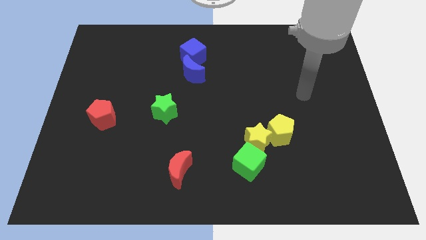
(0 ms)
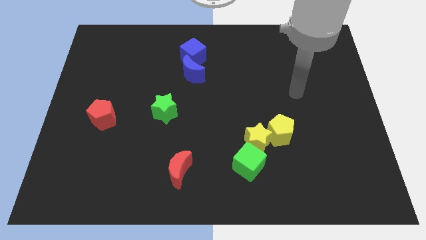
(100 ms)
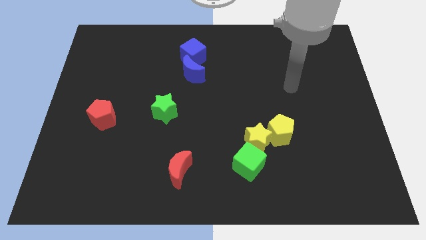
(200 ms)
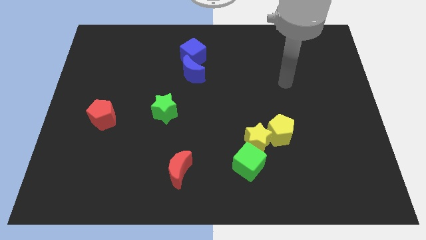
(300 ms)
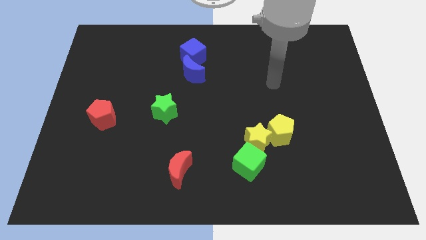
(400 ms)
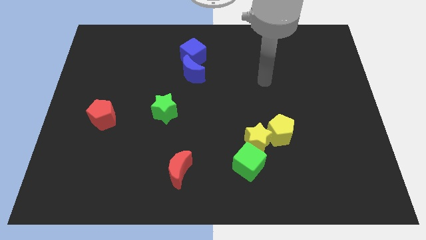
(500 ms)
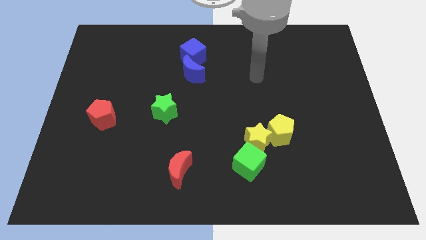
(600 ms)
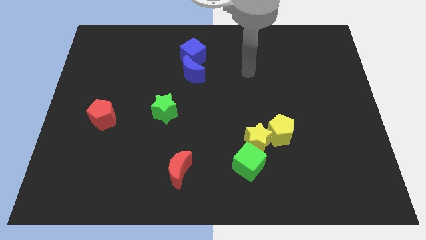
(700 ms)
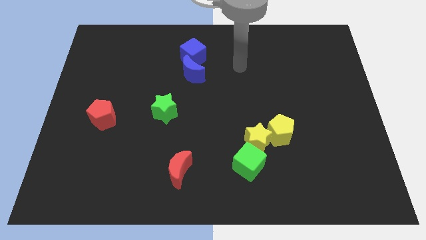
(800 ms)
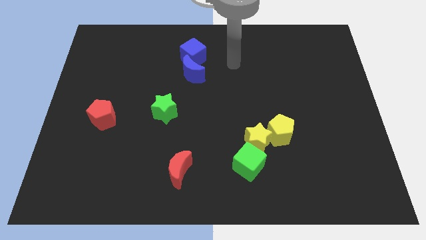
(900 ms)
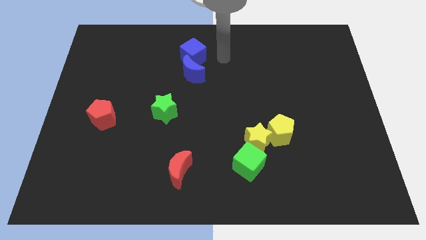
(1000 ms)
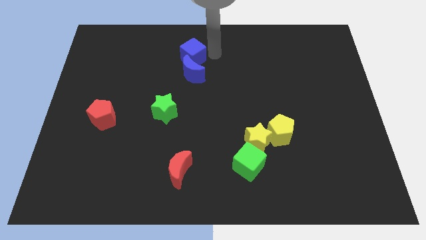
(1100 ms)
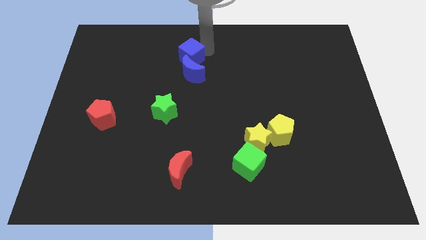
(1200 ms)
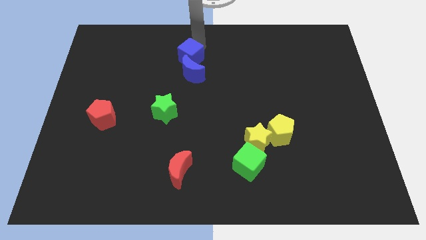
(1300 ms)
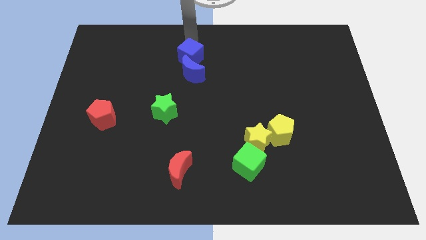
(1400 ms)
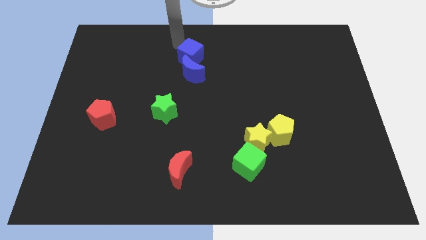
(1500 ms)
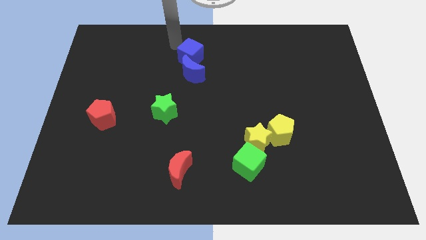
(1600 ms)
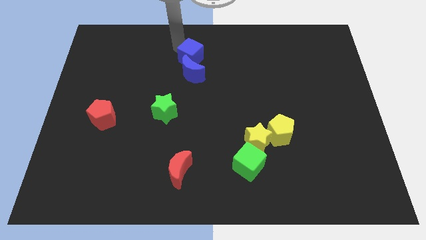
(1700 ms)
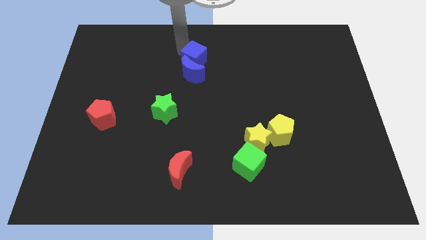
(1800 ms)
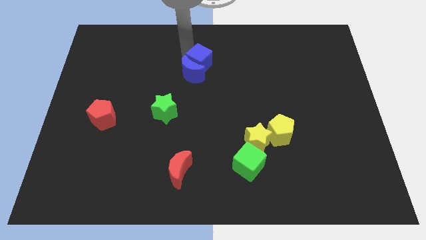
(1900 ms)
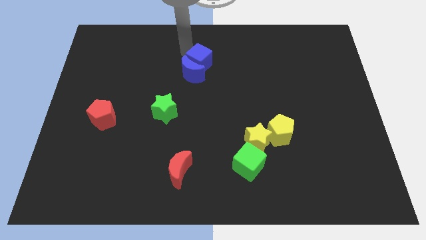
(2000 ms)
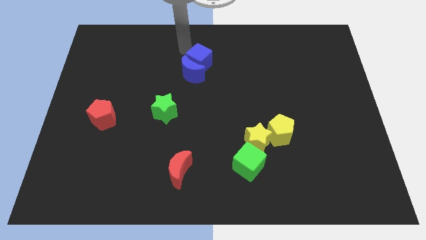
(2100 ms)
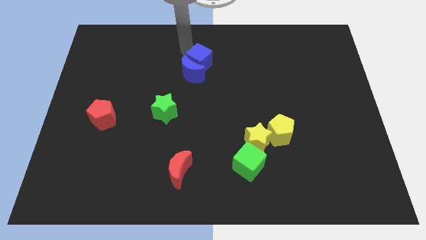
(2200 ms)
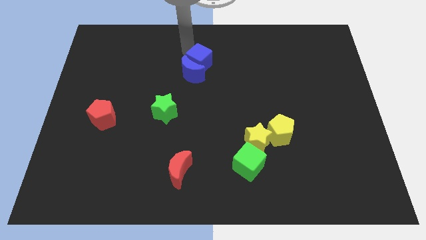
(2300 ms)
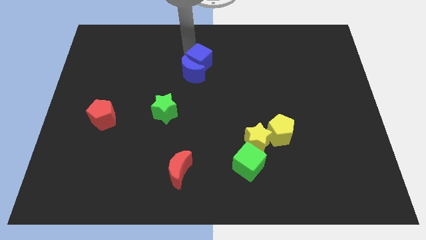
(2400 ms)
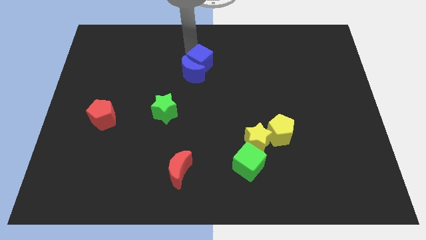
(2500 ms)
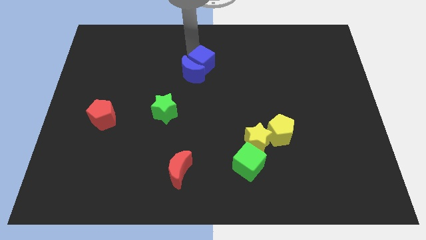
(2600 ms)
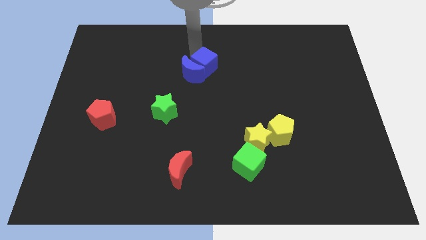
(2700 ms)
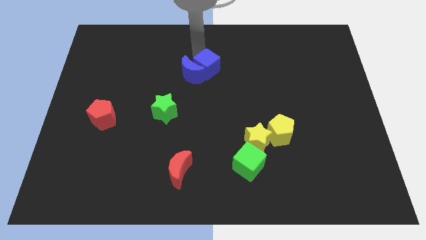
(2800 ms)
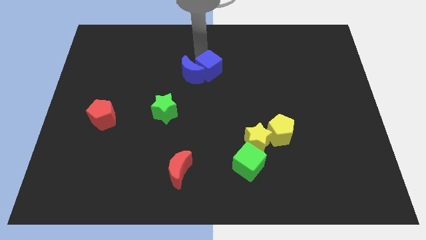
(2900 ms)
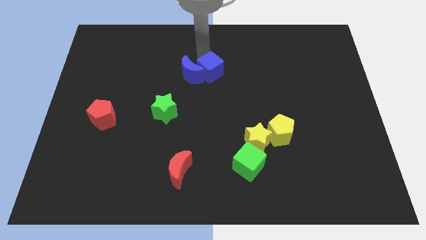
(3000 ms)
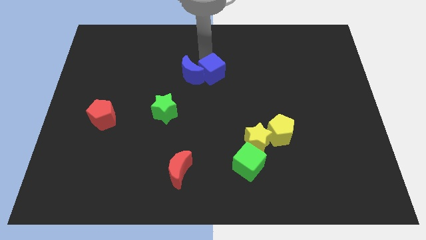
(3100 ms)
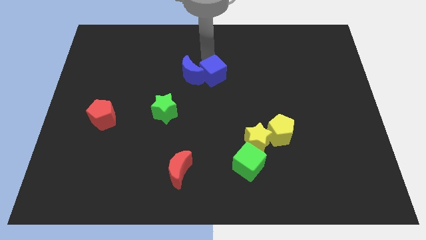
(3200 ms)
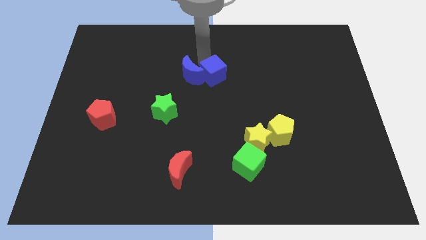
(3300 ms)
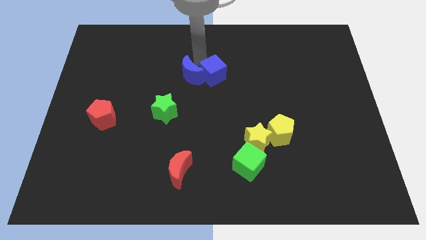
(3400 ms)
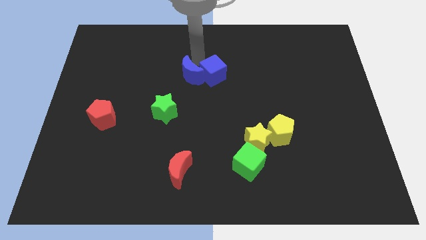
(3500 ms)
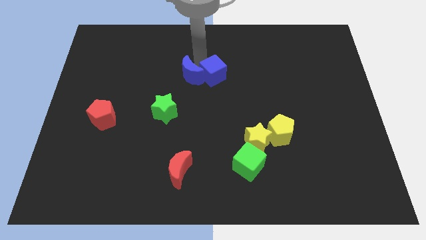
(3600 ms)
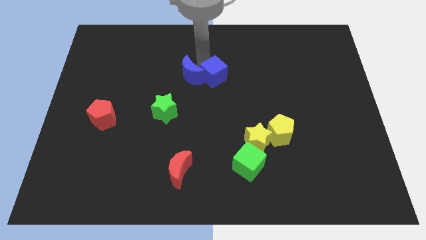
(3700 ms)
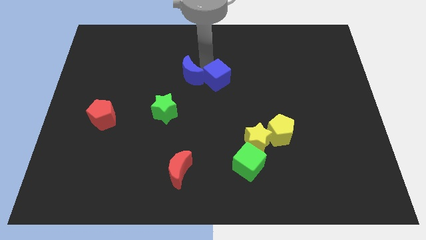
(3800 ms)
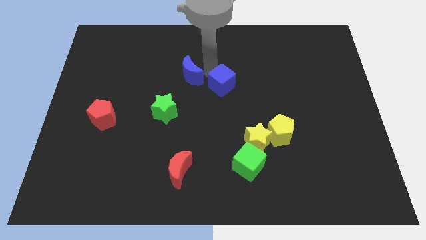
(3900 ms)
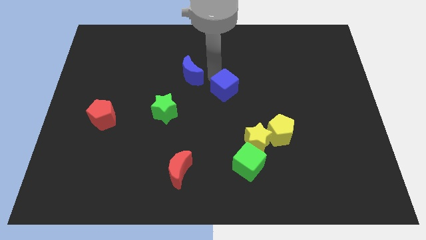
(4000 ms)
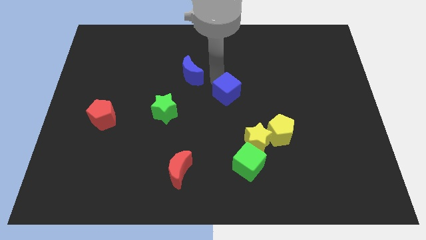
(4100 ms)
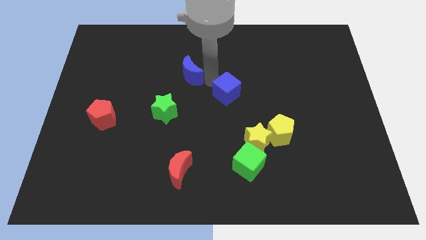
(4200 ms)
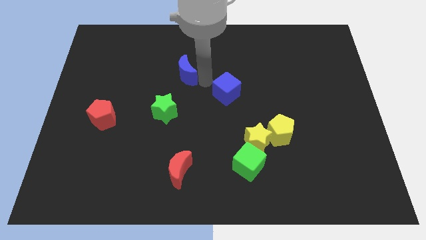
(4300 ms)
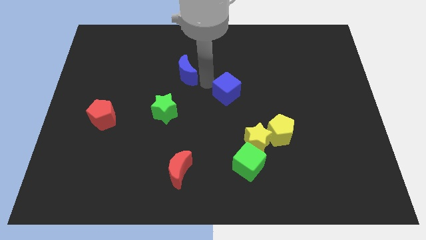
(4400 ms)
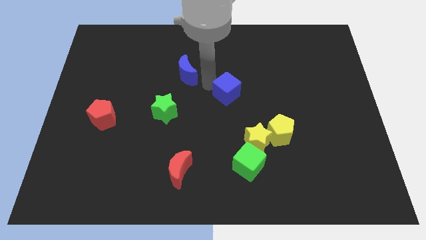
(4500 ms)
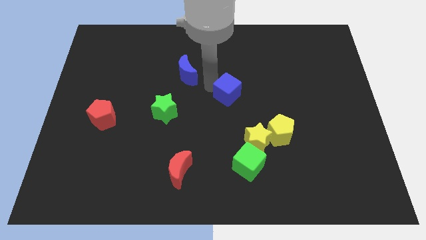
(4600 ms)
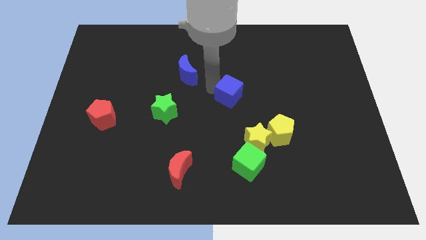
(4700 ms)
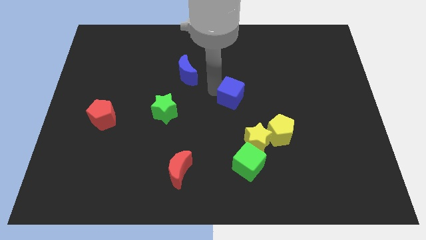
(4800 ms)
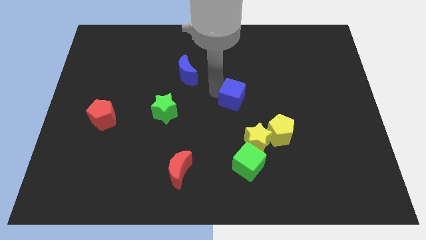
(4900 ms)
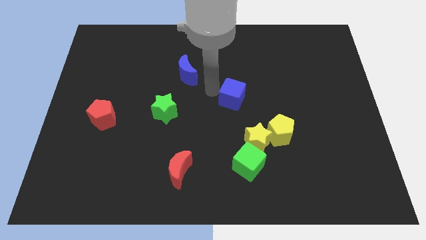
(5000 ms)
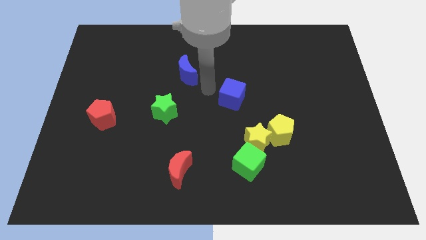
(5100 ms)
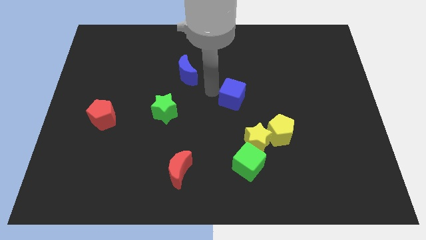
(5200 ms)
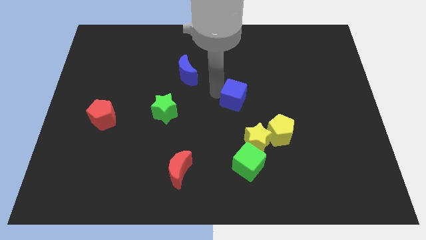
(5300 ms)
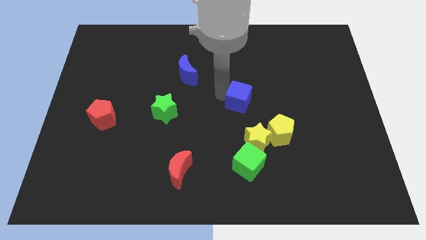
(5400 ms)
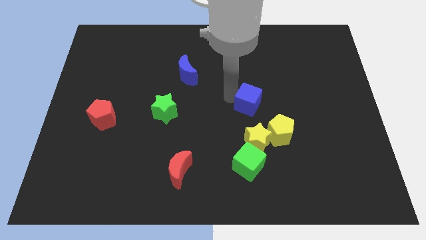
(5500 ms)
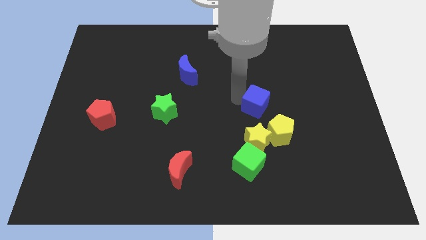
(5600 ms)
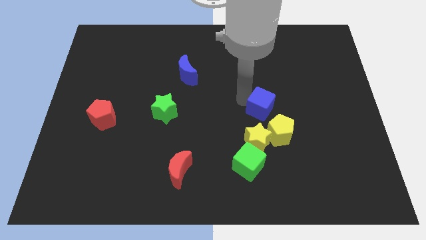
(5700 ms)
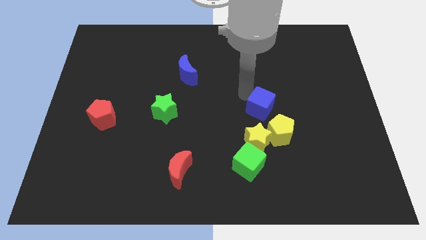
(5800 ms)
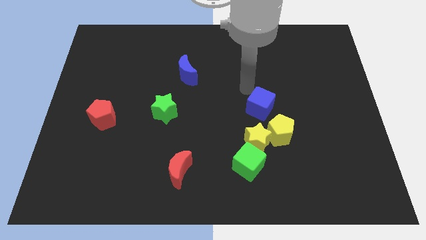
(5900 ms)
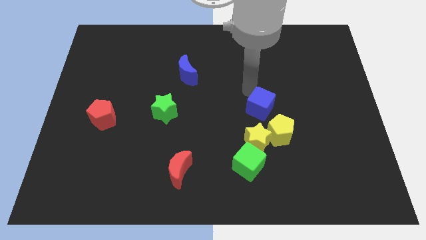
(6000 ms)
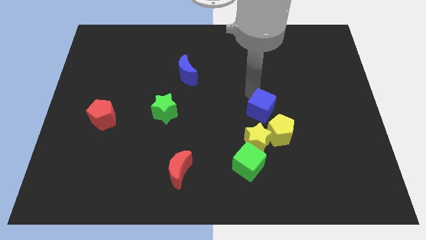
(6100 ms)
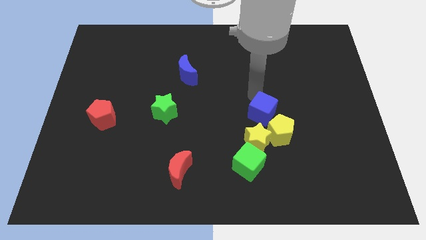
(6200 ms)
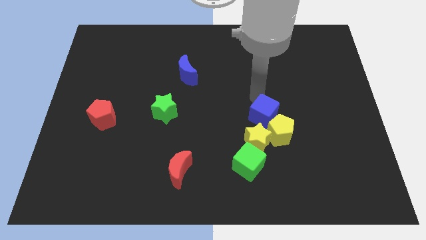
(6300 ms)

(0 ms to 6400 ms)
move the blue cube to the yellow pentagon

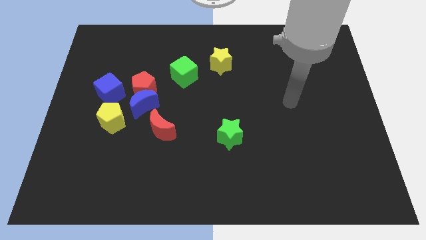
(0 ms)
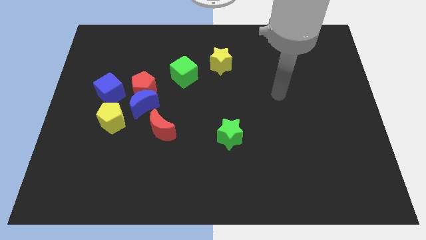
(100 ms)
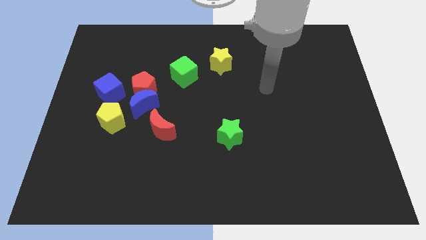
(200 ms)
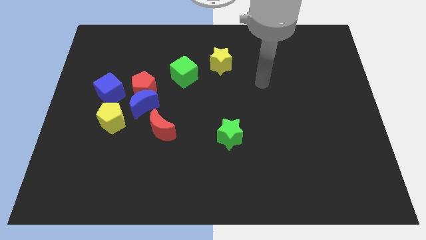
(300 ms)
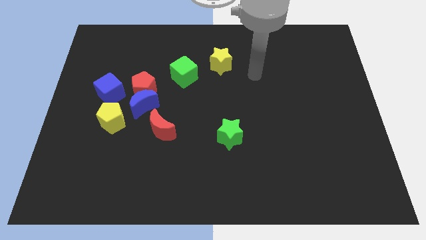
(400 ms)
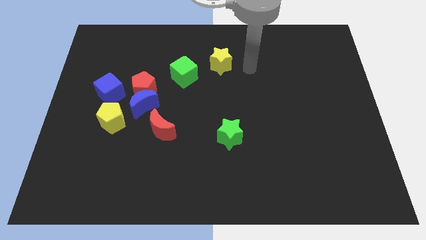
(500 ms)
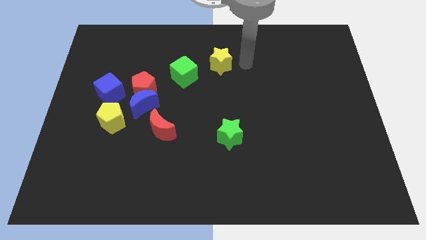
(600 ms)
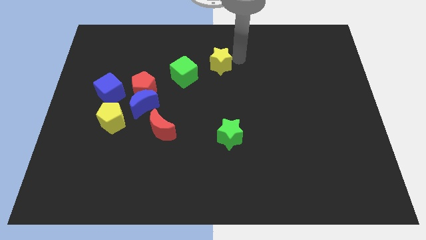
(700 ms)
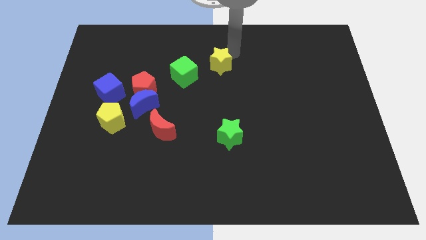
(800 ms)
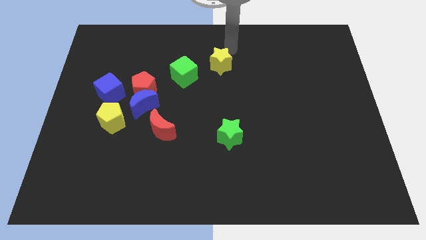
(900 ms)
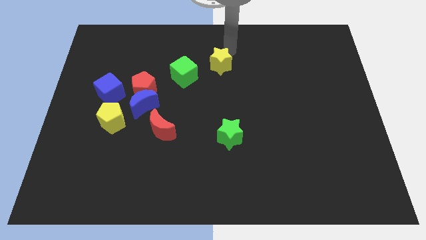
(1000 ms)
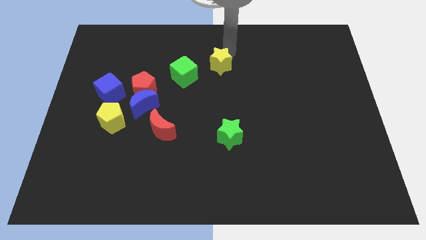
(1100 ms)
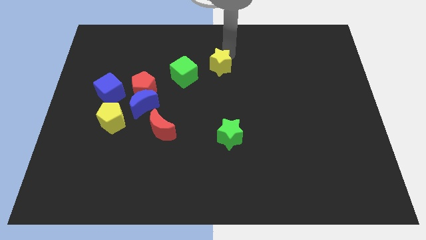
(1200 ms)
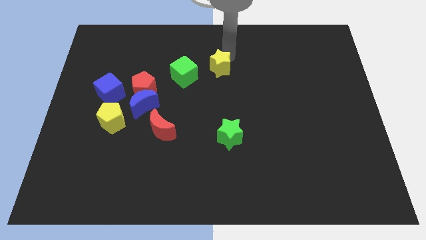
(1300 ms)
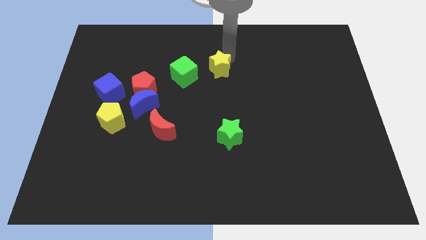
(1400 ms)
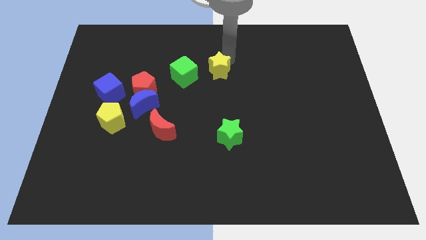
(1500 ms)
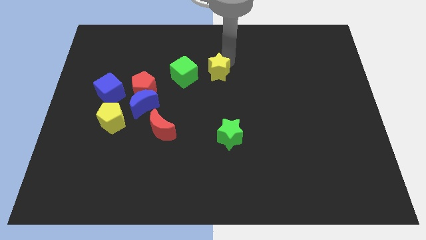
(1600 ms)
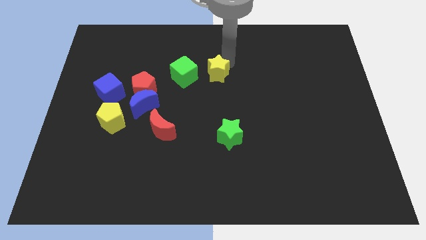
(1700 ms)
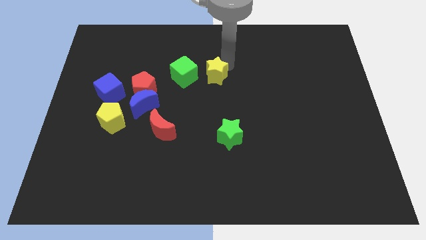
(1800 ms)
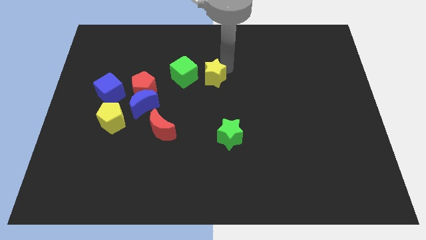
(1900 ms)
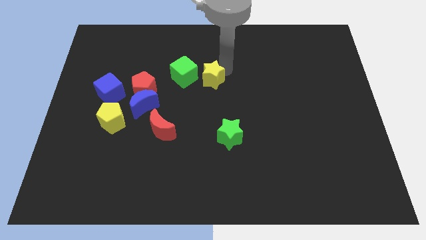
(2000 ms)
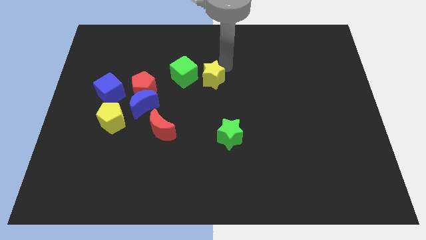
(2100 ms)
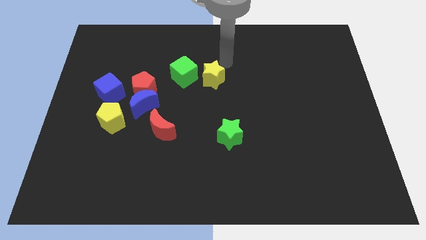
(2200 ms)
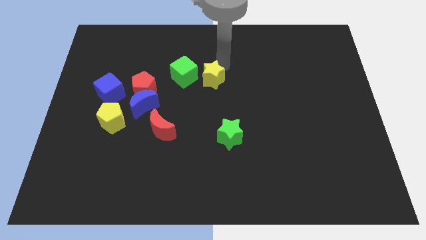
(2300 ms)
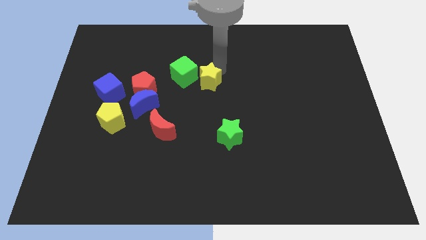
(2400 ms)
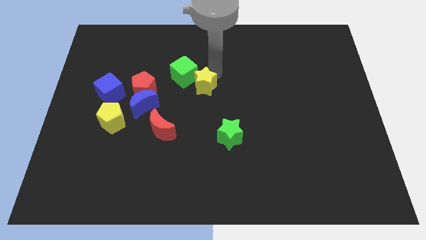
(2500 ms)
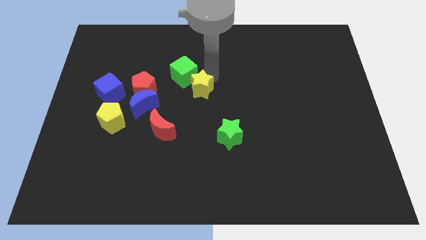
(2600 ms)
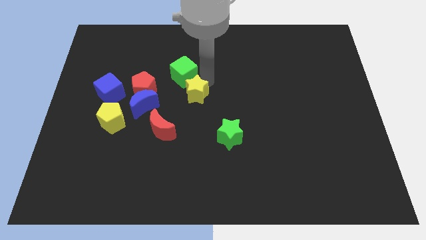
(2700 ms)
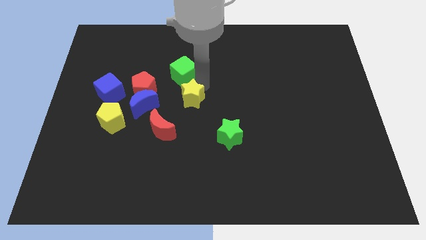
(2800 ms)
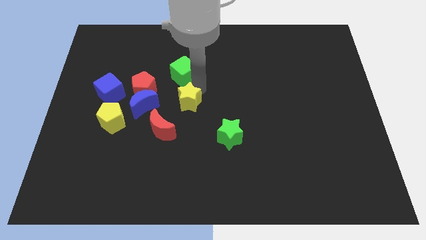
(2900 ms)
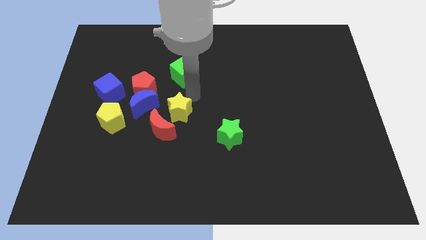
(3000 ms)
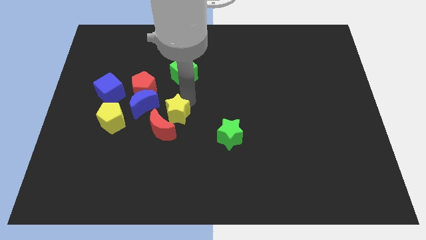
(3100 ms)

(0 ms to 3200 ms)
move the yellow star next to the red moon
